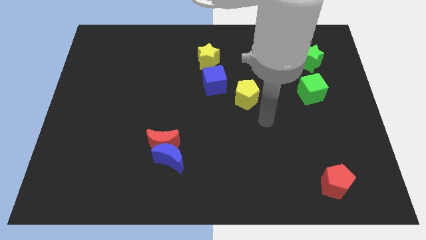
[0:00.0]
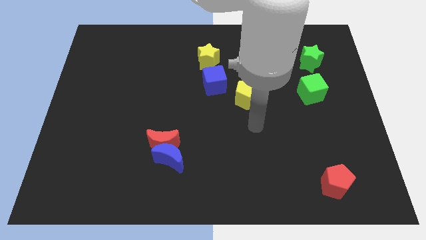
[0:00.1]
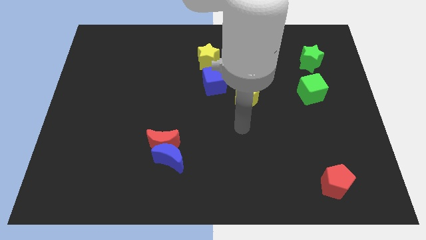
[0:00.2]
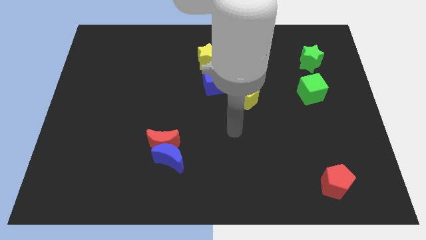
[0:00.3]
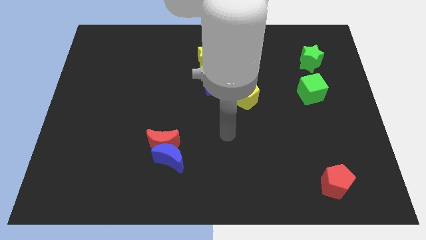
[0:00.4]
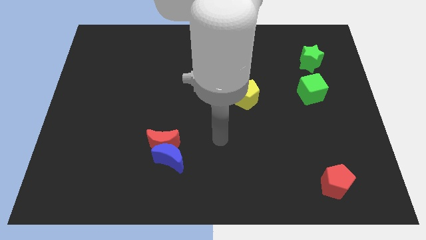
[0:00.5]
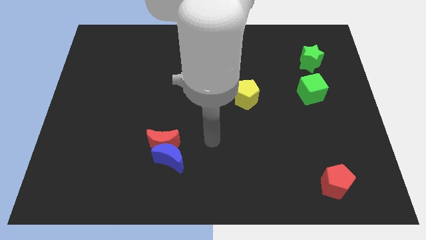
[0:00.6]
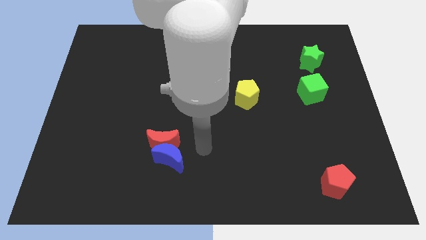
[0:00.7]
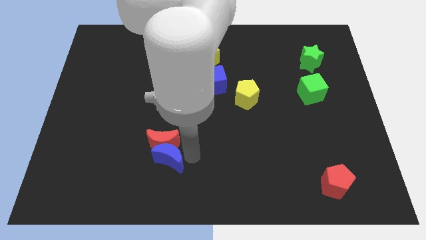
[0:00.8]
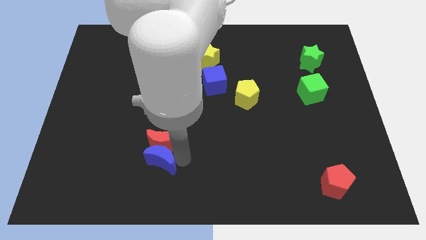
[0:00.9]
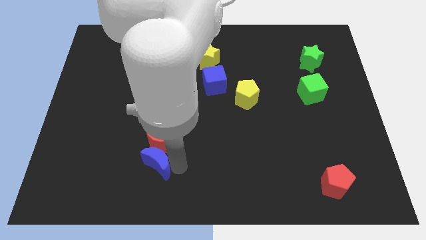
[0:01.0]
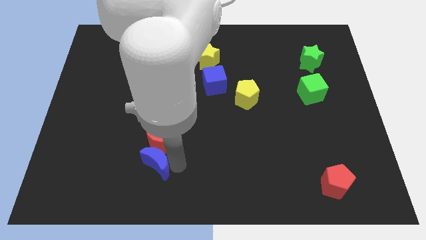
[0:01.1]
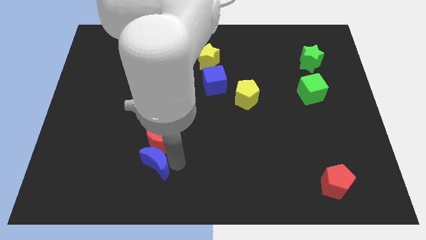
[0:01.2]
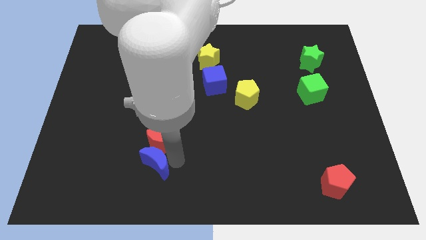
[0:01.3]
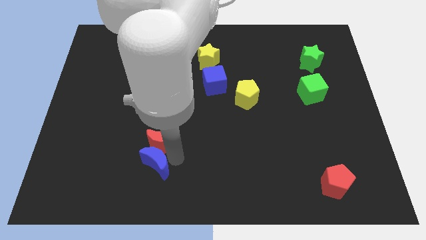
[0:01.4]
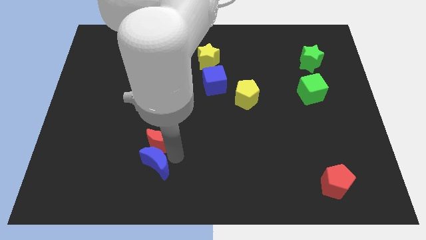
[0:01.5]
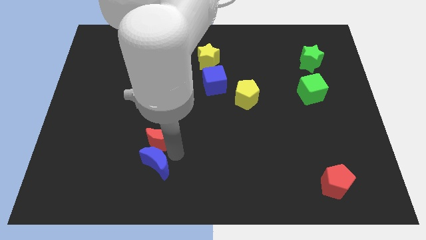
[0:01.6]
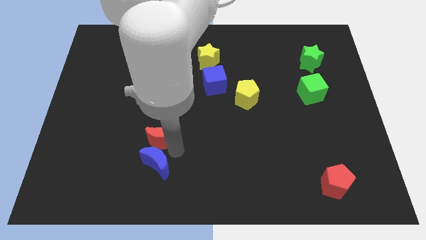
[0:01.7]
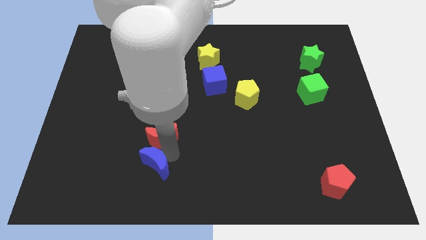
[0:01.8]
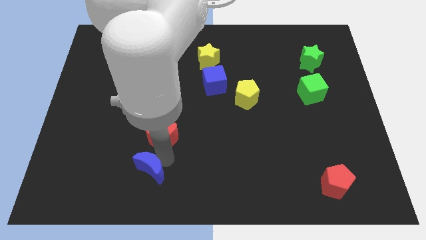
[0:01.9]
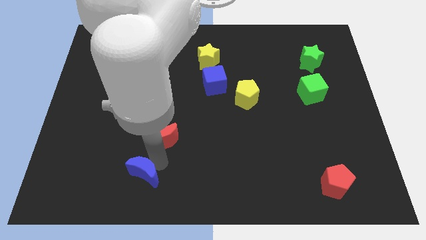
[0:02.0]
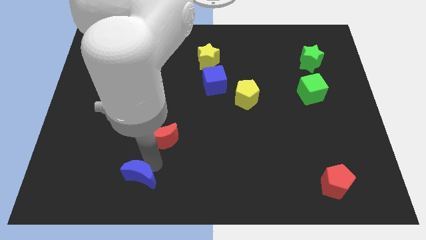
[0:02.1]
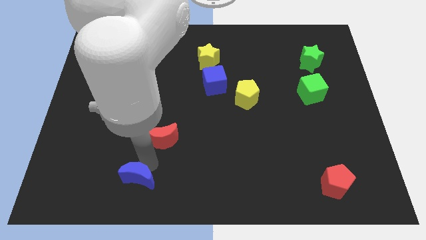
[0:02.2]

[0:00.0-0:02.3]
pull the red moon apart from the blue moon

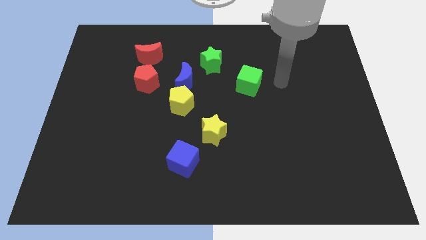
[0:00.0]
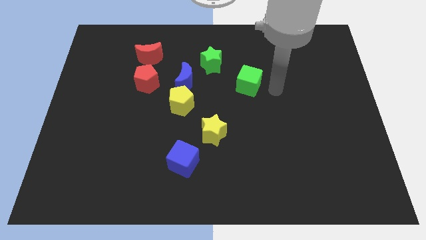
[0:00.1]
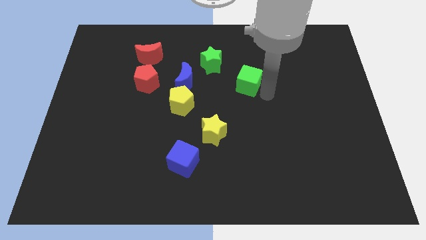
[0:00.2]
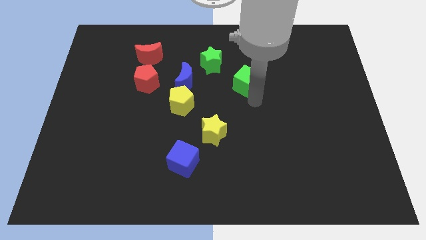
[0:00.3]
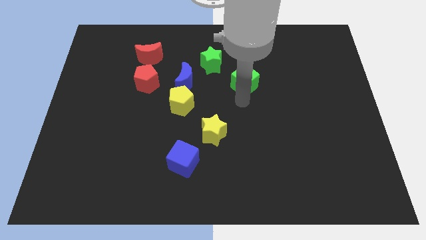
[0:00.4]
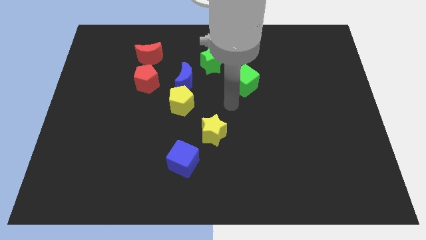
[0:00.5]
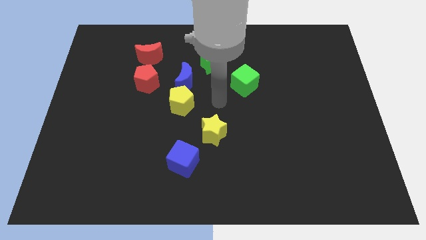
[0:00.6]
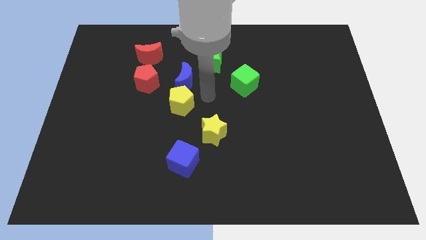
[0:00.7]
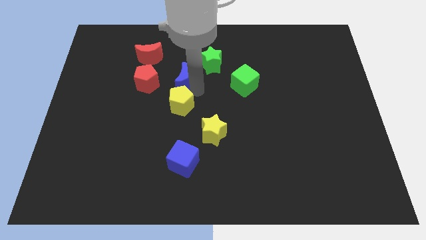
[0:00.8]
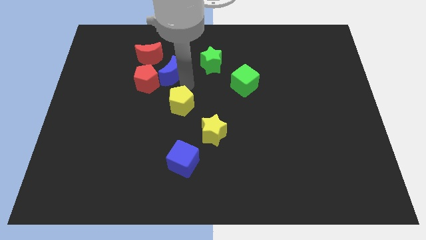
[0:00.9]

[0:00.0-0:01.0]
pull the yellow pentagon apart from the blue moon

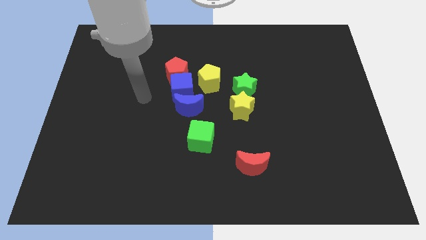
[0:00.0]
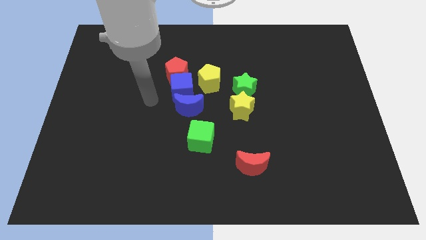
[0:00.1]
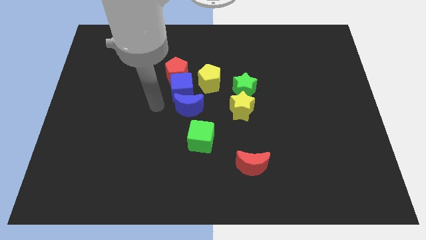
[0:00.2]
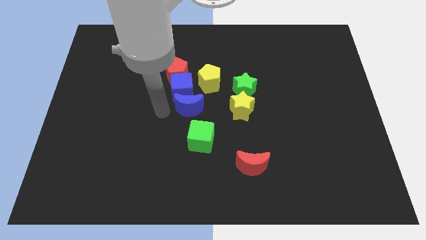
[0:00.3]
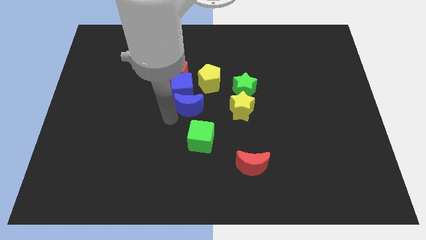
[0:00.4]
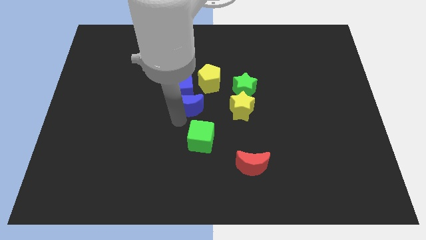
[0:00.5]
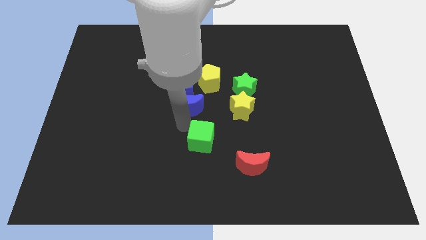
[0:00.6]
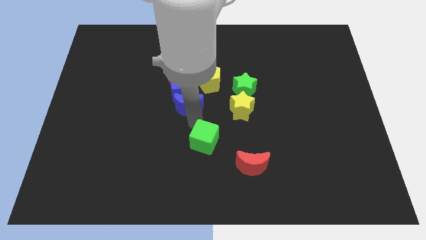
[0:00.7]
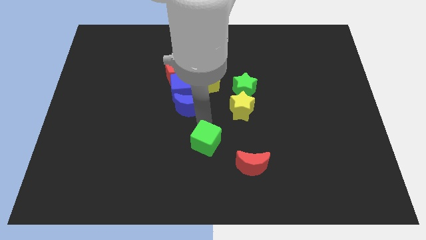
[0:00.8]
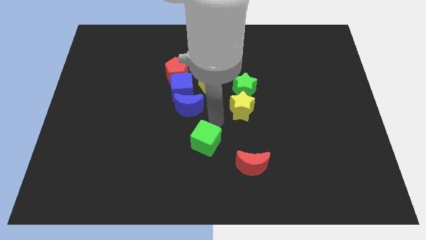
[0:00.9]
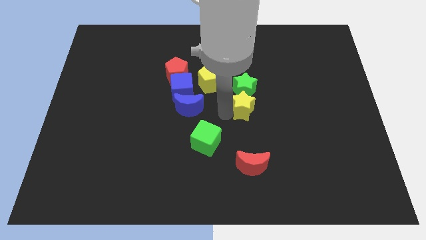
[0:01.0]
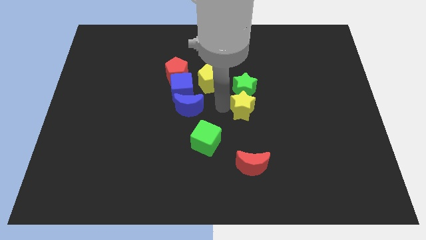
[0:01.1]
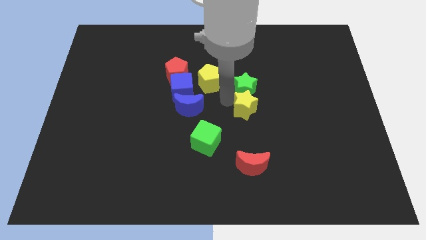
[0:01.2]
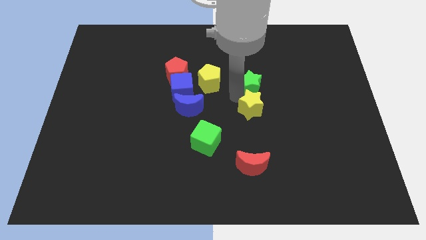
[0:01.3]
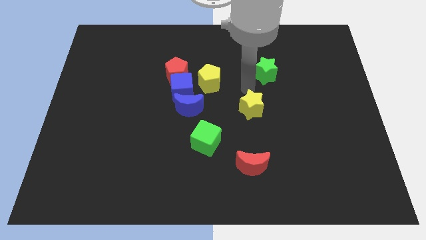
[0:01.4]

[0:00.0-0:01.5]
separate the yellow star from the green star

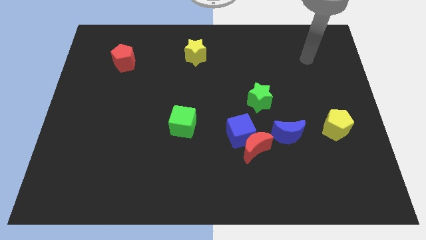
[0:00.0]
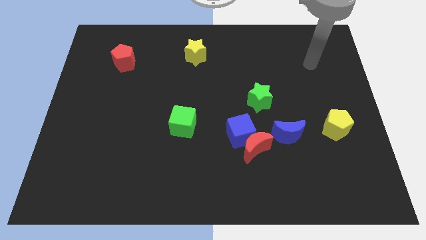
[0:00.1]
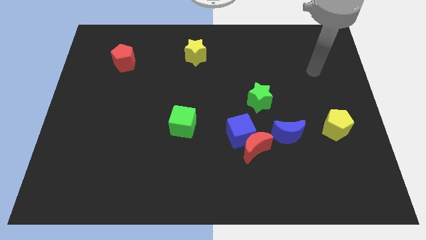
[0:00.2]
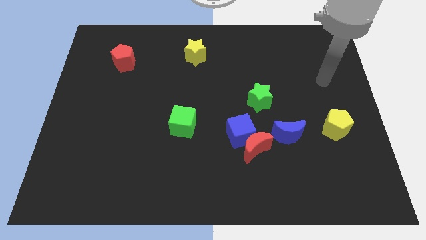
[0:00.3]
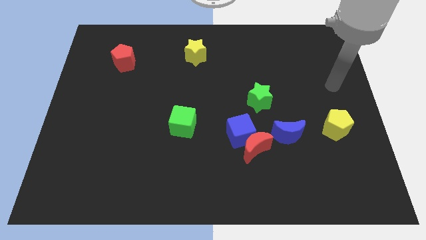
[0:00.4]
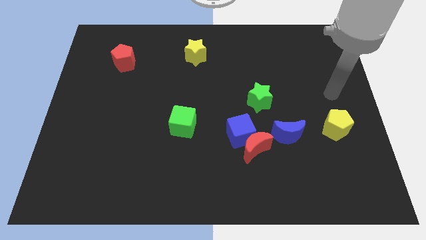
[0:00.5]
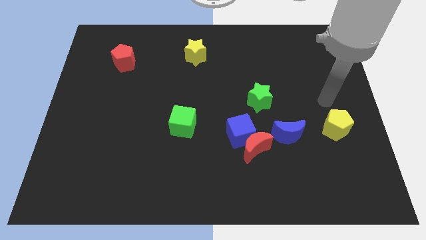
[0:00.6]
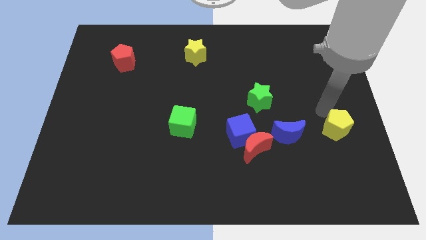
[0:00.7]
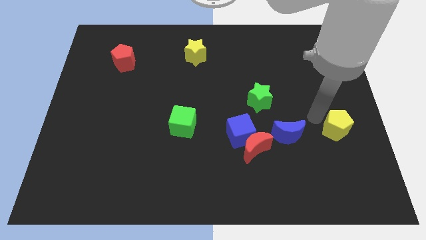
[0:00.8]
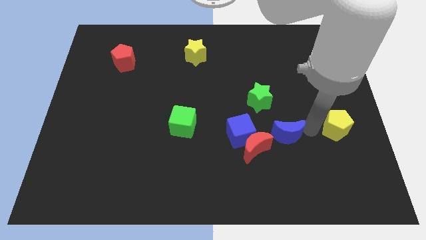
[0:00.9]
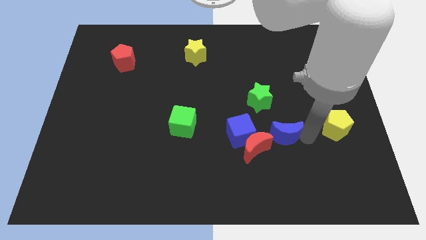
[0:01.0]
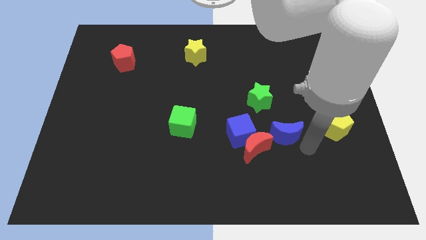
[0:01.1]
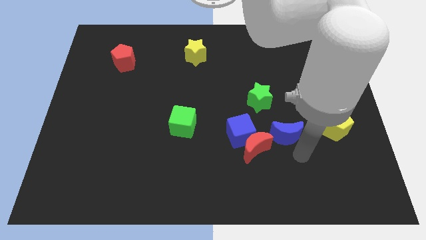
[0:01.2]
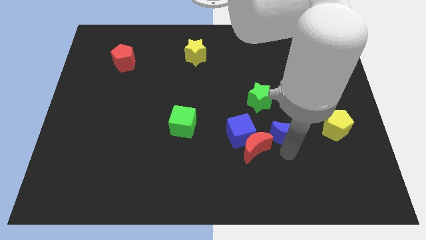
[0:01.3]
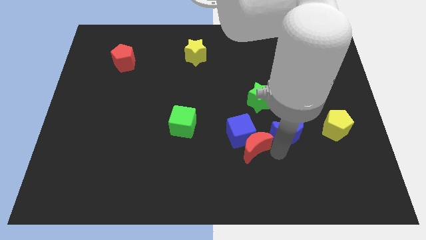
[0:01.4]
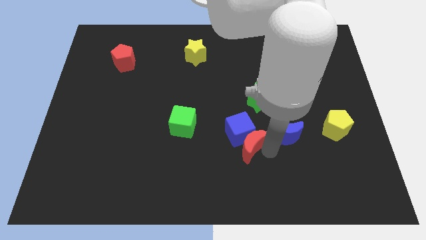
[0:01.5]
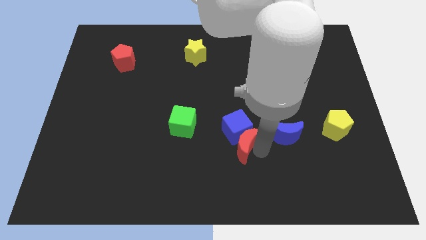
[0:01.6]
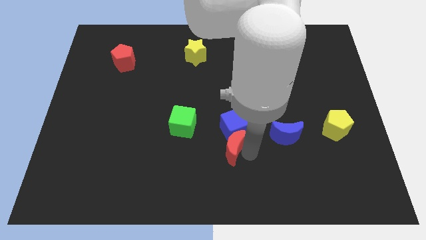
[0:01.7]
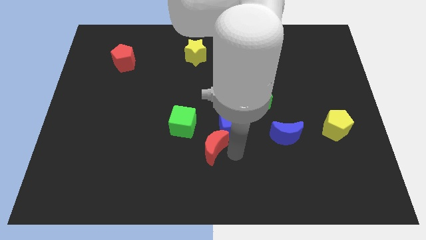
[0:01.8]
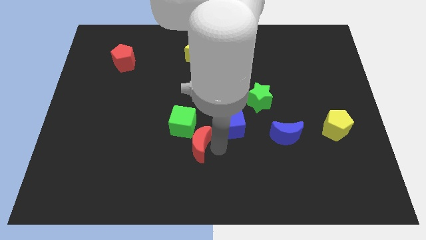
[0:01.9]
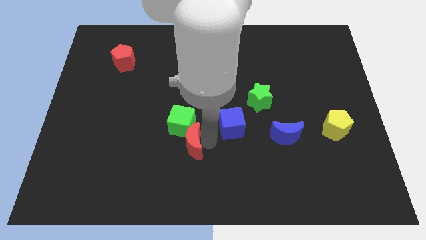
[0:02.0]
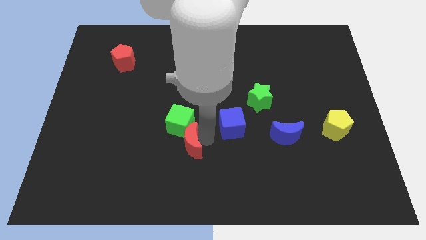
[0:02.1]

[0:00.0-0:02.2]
move the blue cube away from the red moon

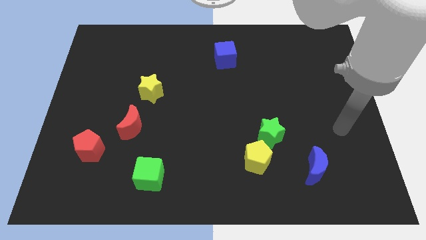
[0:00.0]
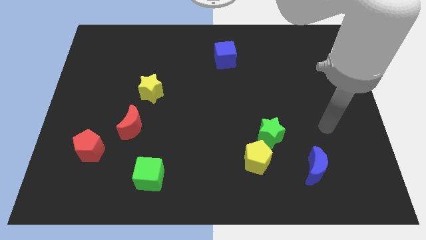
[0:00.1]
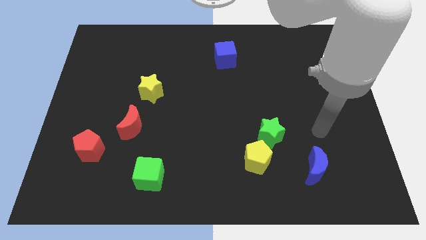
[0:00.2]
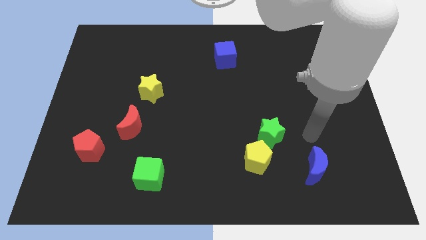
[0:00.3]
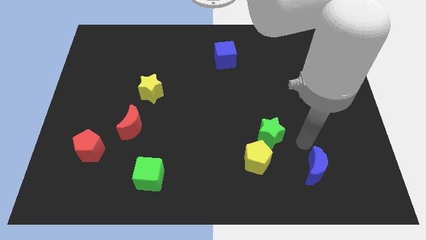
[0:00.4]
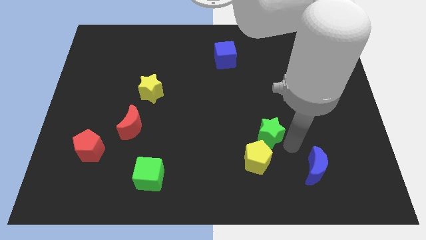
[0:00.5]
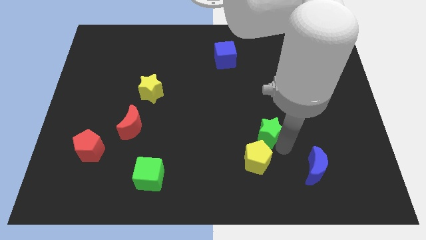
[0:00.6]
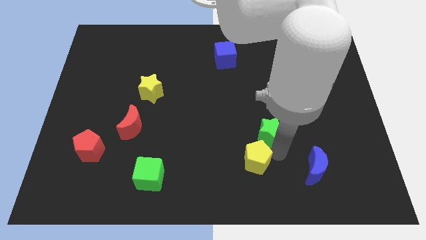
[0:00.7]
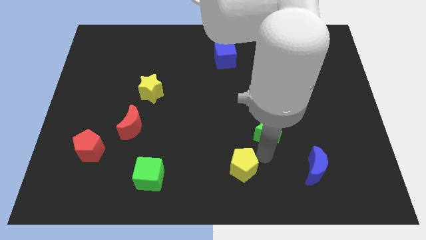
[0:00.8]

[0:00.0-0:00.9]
pull the green star apart from the yellow pentagon

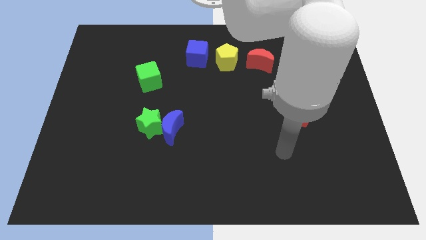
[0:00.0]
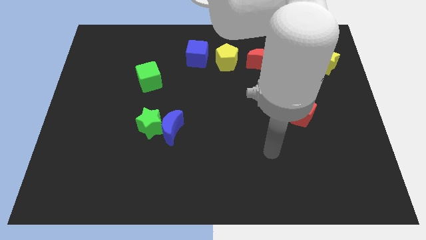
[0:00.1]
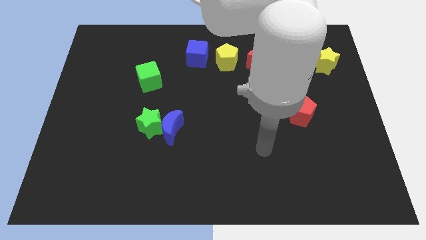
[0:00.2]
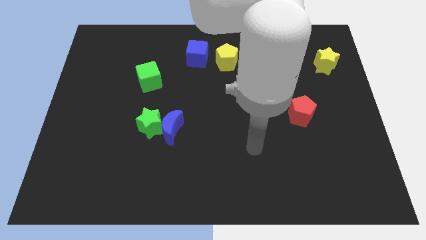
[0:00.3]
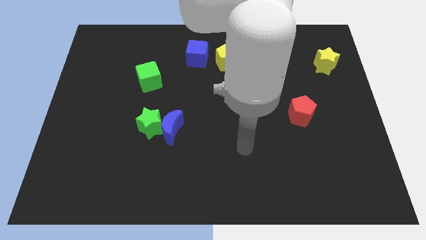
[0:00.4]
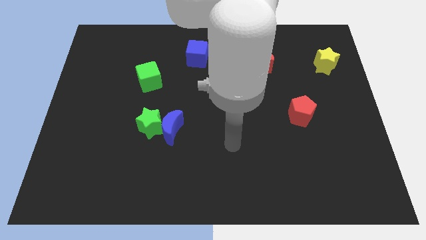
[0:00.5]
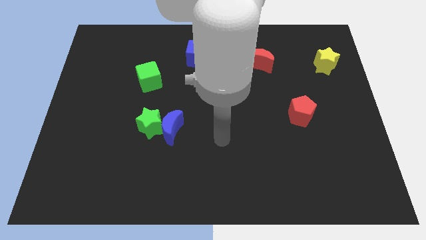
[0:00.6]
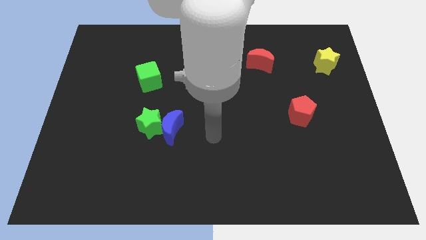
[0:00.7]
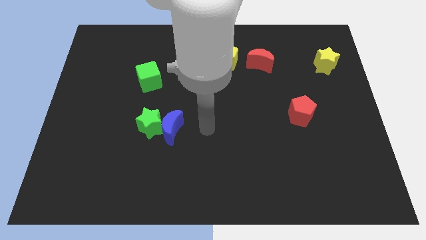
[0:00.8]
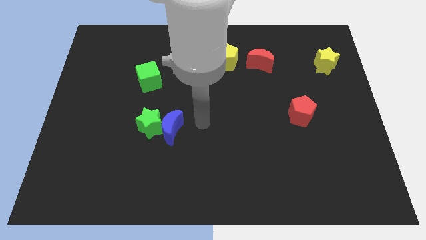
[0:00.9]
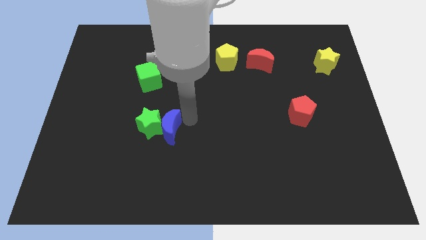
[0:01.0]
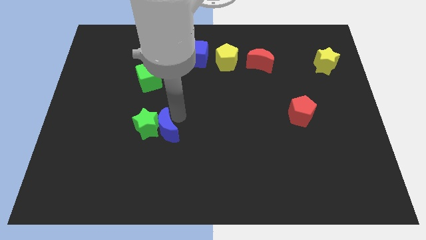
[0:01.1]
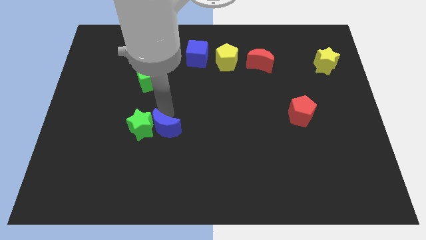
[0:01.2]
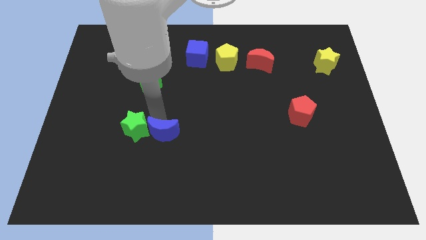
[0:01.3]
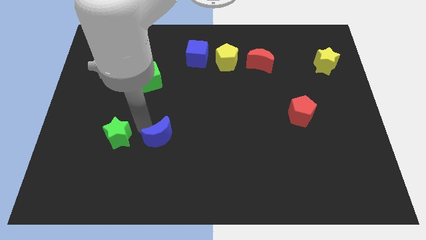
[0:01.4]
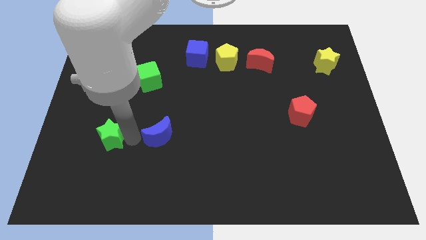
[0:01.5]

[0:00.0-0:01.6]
separate the blue moon from the green star
